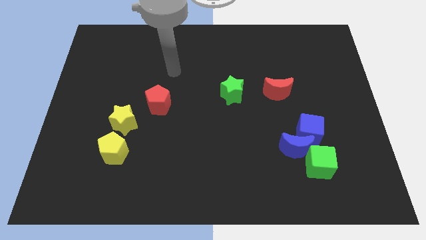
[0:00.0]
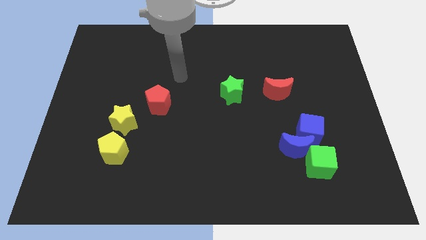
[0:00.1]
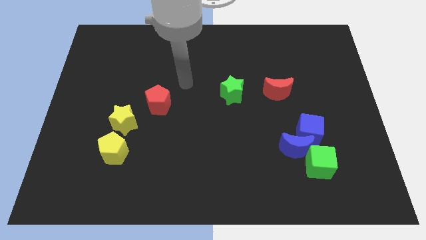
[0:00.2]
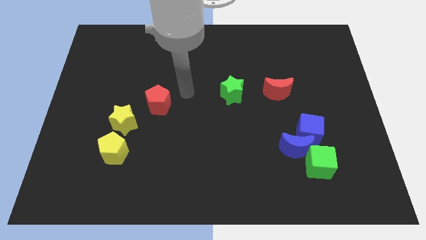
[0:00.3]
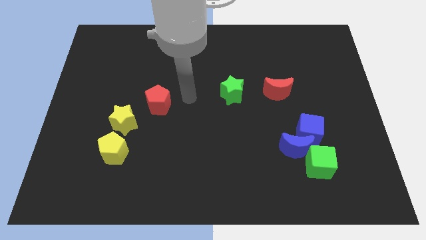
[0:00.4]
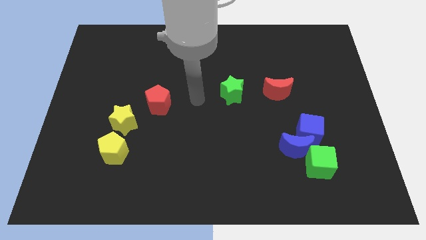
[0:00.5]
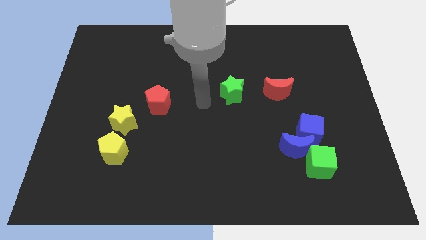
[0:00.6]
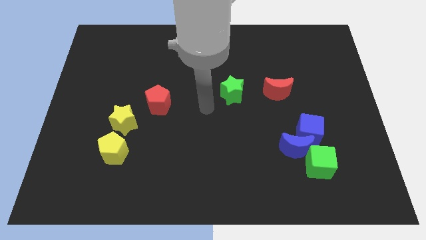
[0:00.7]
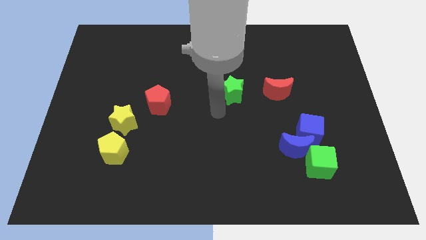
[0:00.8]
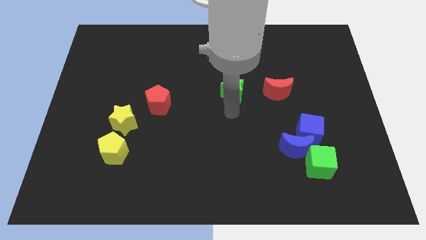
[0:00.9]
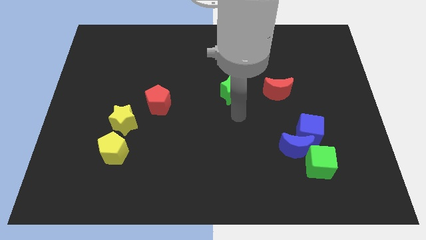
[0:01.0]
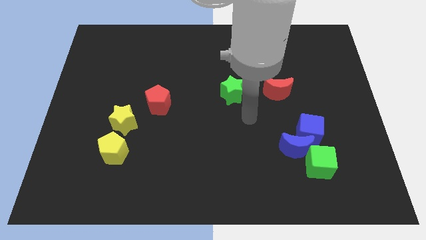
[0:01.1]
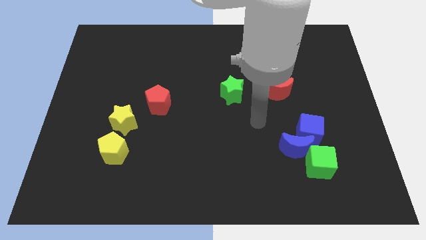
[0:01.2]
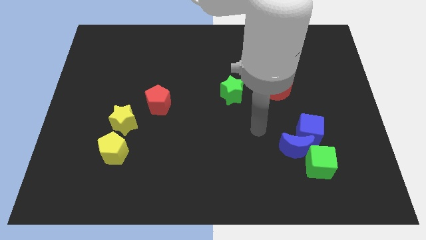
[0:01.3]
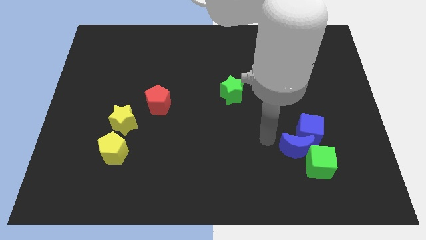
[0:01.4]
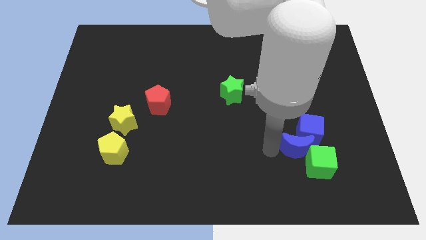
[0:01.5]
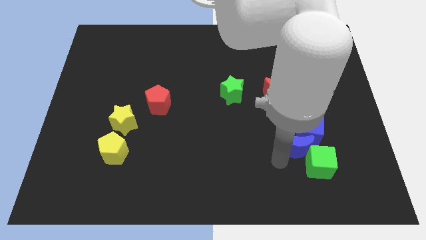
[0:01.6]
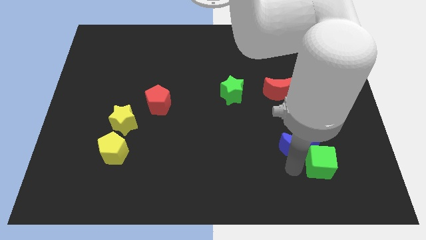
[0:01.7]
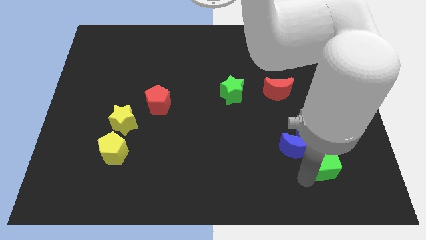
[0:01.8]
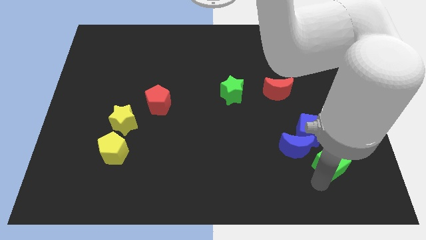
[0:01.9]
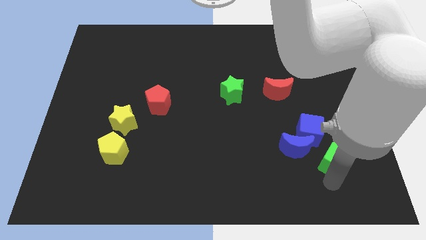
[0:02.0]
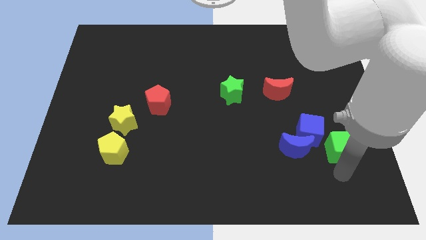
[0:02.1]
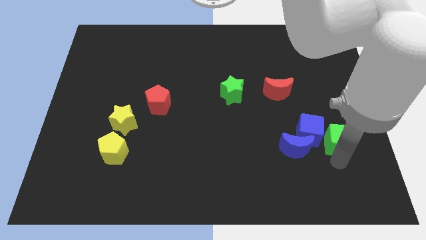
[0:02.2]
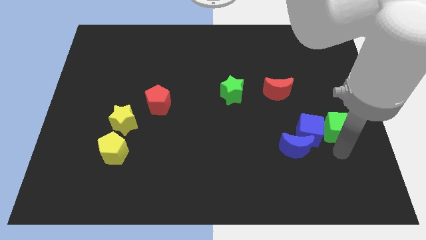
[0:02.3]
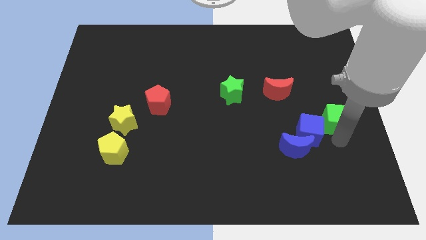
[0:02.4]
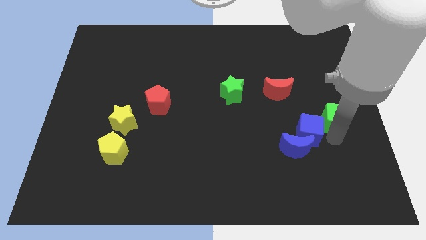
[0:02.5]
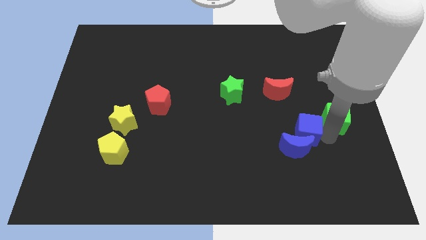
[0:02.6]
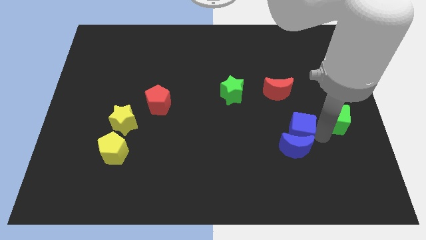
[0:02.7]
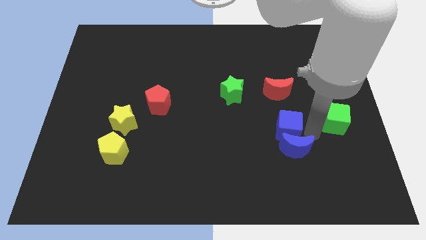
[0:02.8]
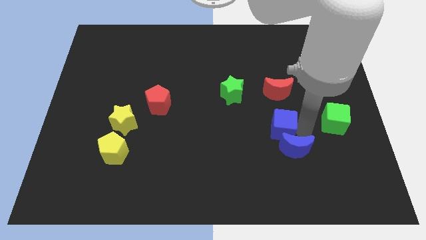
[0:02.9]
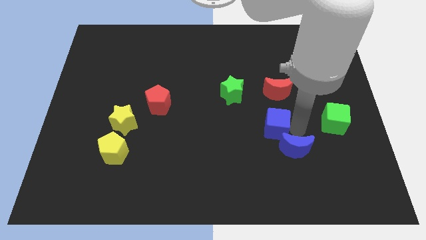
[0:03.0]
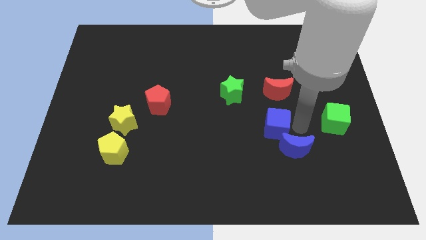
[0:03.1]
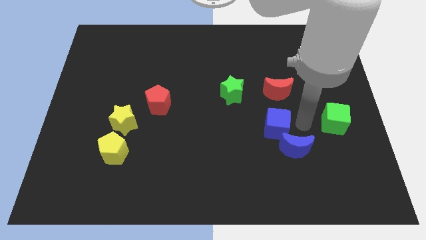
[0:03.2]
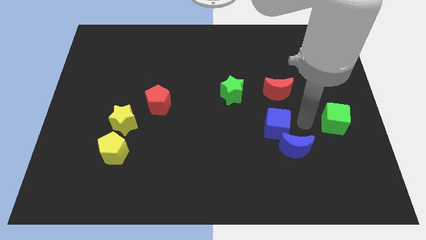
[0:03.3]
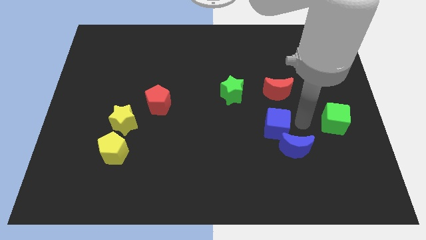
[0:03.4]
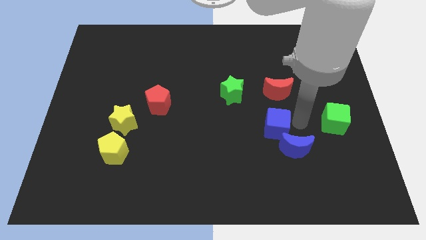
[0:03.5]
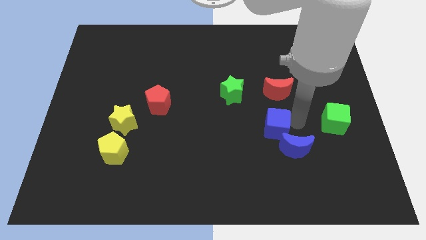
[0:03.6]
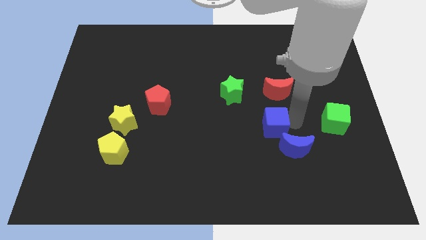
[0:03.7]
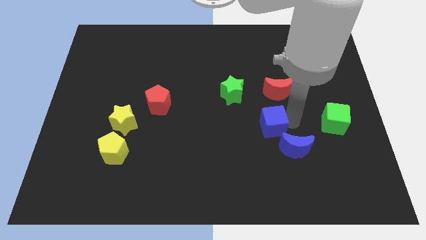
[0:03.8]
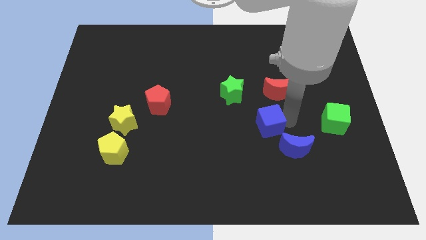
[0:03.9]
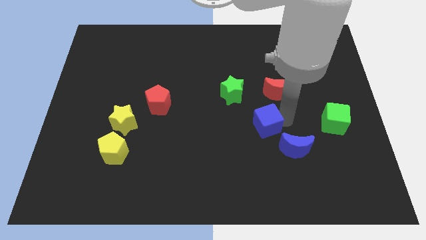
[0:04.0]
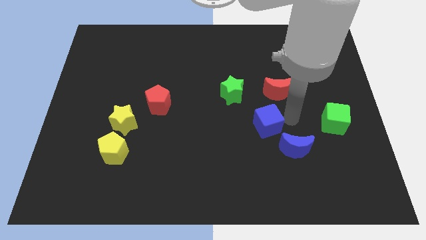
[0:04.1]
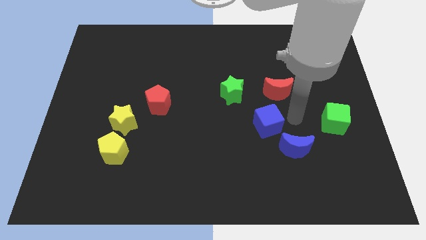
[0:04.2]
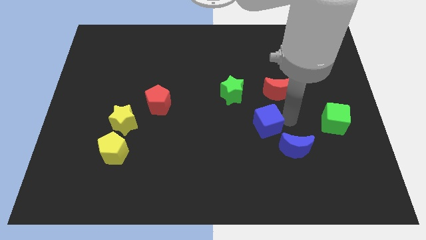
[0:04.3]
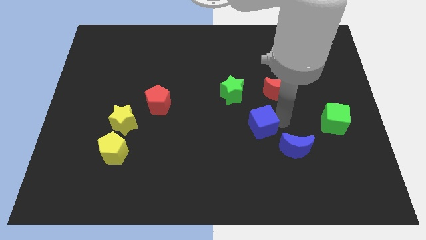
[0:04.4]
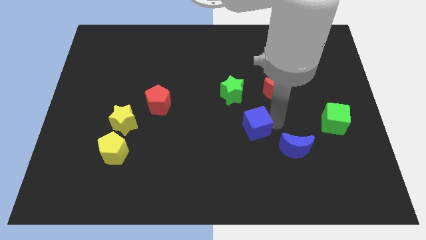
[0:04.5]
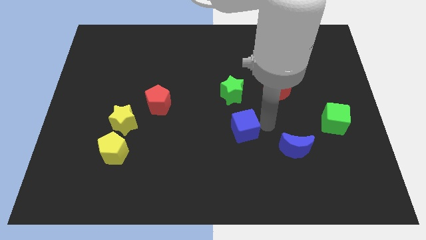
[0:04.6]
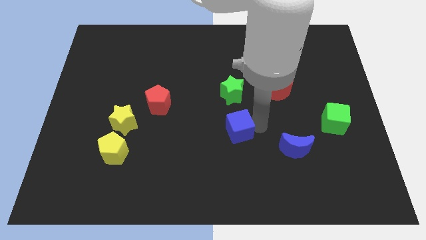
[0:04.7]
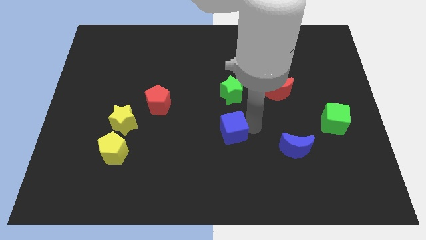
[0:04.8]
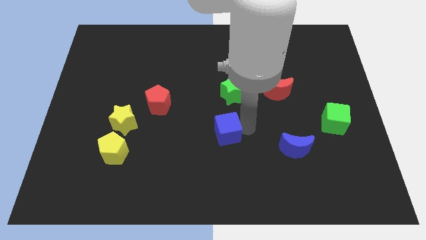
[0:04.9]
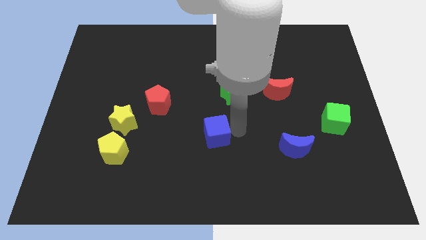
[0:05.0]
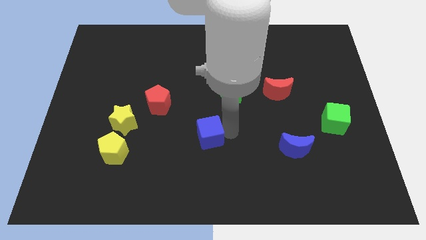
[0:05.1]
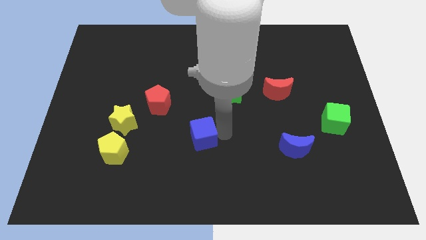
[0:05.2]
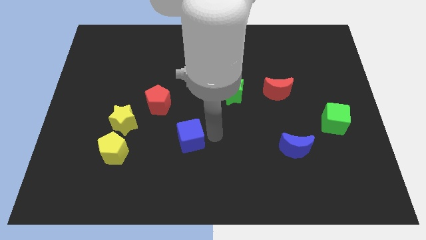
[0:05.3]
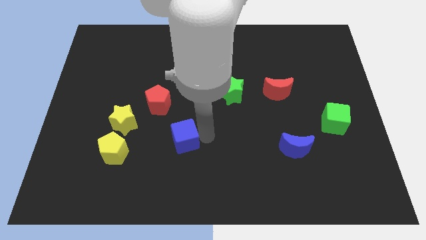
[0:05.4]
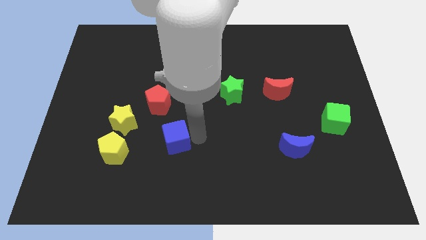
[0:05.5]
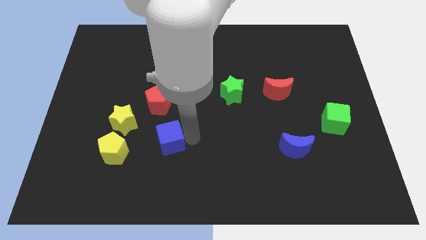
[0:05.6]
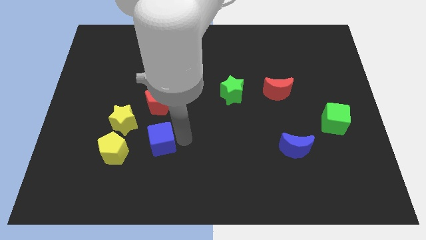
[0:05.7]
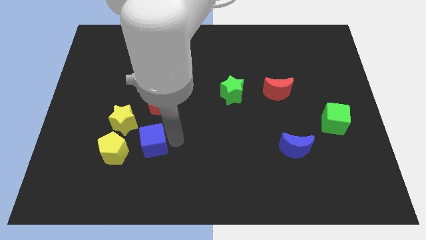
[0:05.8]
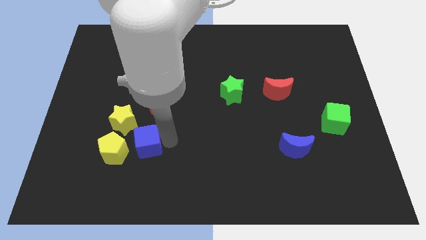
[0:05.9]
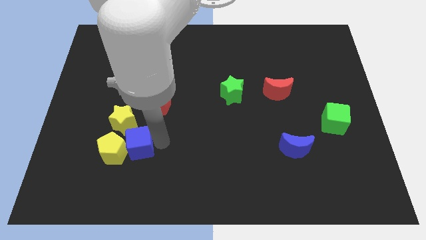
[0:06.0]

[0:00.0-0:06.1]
slide the blue cube next to the yellow pentagon

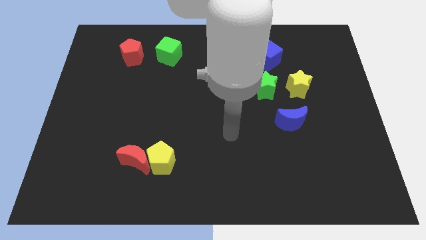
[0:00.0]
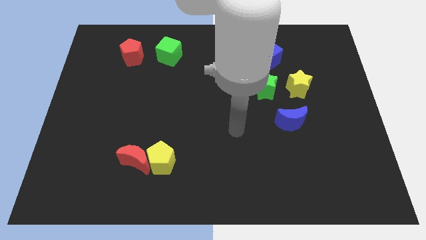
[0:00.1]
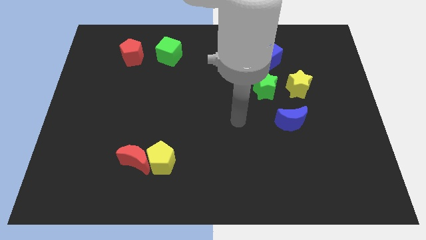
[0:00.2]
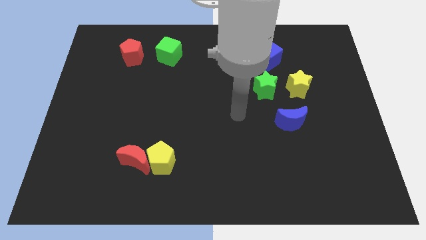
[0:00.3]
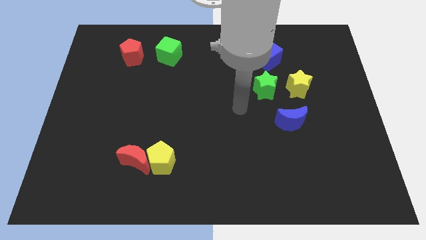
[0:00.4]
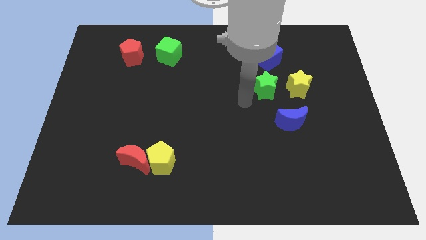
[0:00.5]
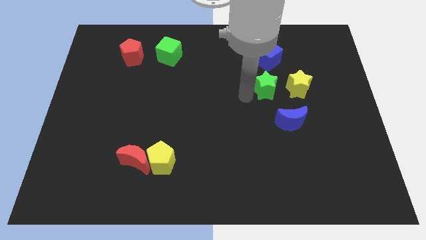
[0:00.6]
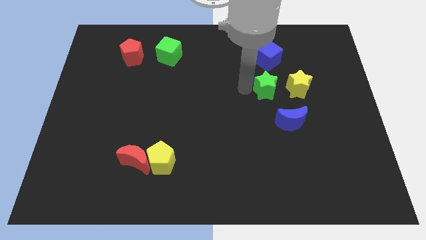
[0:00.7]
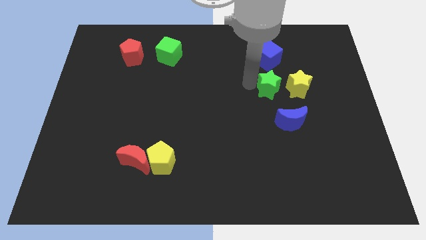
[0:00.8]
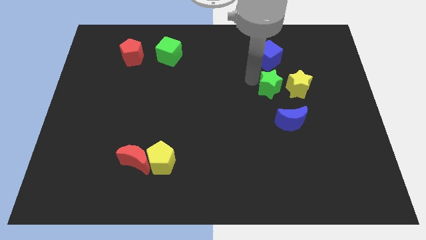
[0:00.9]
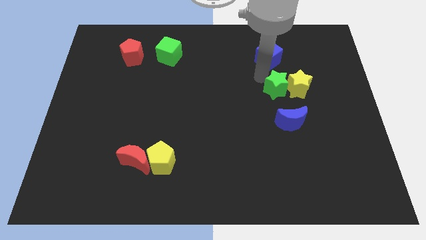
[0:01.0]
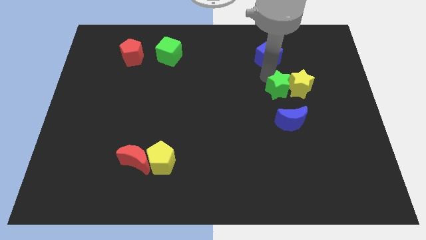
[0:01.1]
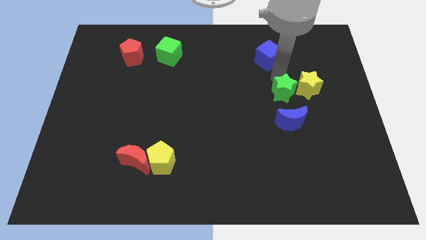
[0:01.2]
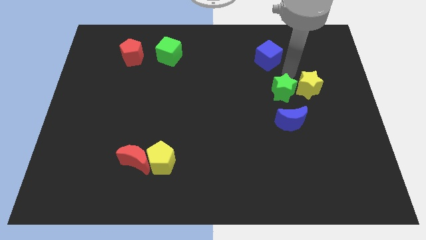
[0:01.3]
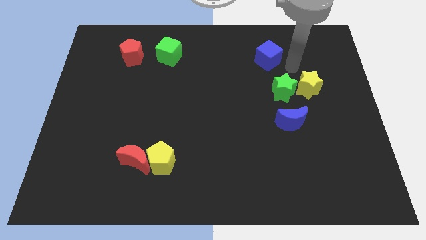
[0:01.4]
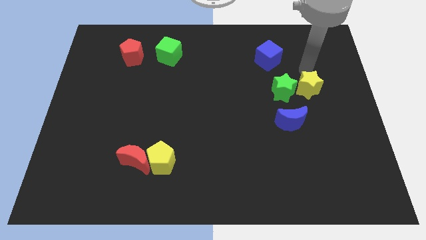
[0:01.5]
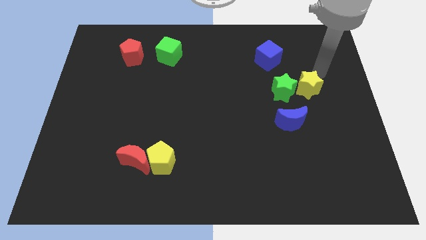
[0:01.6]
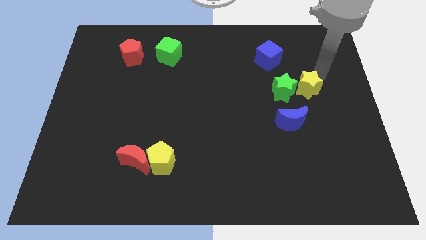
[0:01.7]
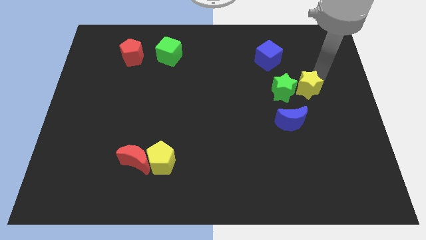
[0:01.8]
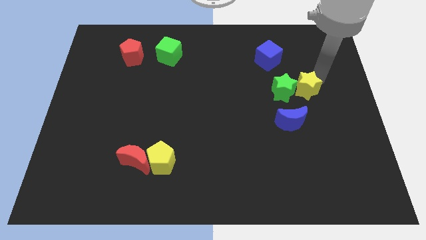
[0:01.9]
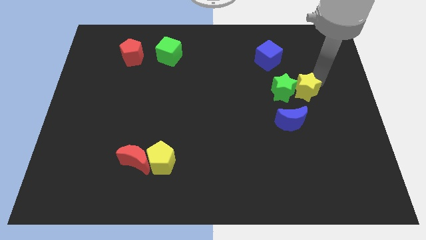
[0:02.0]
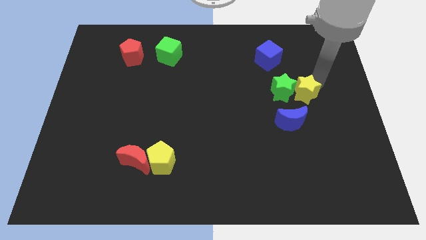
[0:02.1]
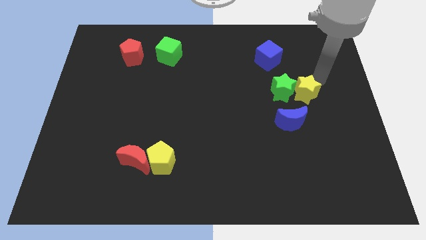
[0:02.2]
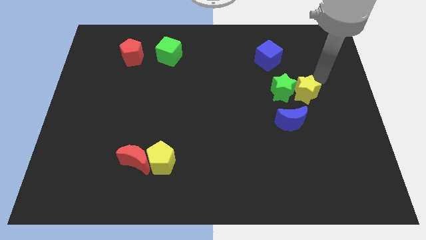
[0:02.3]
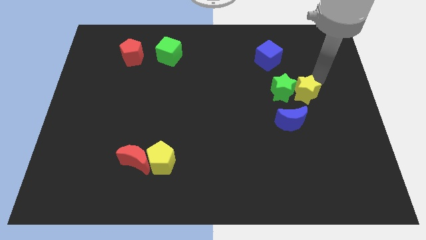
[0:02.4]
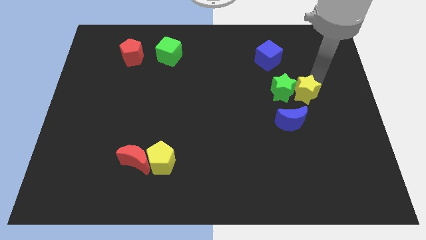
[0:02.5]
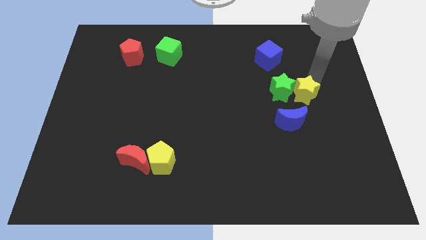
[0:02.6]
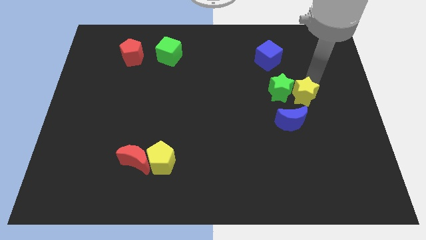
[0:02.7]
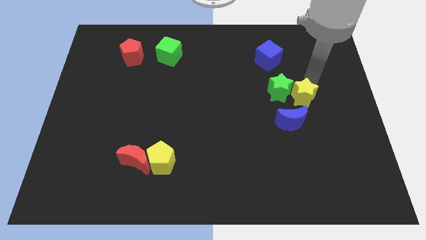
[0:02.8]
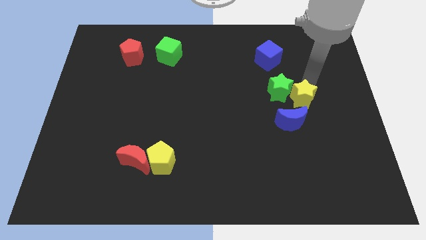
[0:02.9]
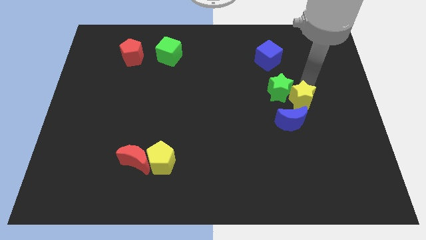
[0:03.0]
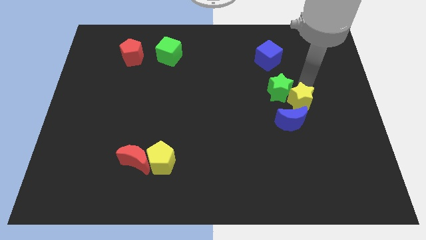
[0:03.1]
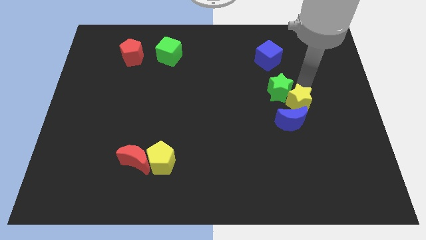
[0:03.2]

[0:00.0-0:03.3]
put the yellow star towards the blue moon
